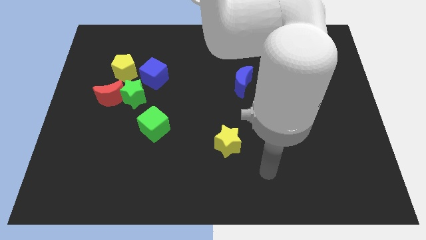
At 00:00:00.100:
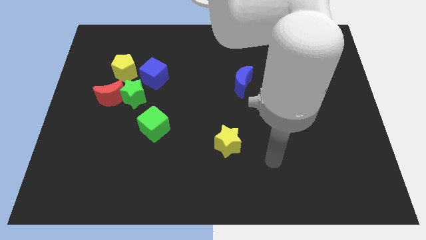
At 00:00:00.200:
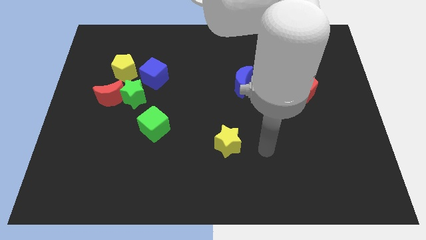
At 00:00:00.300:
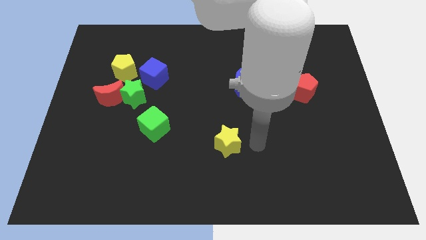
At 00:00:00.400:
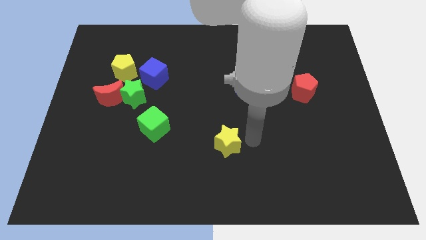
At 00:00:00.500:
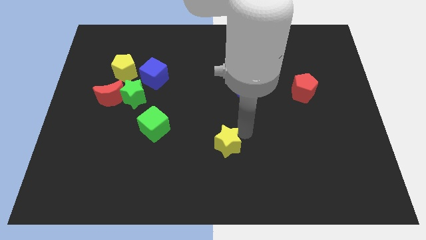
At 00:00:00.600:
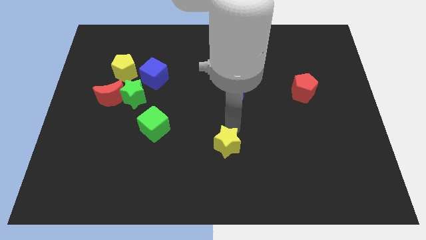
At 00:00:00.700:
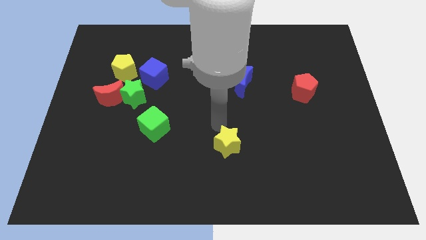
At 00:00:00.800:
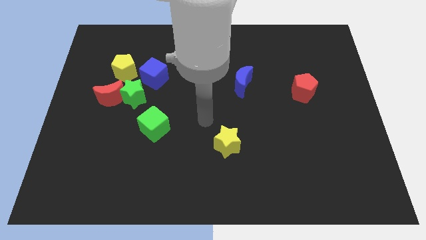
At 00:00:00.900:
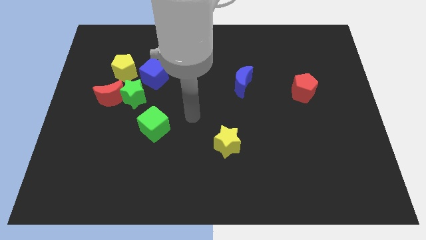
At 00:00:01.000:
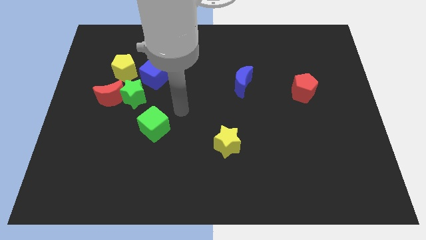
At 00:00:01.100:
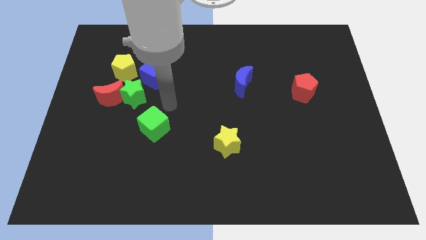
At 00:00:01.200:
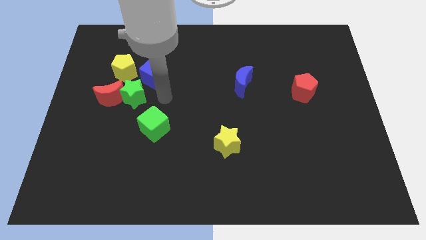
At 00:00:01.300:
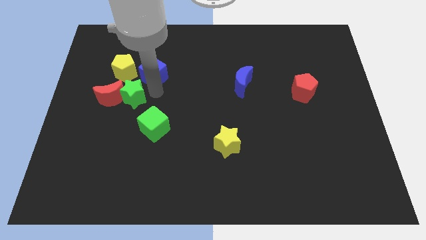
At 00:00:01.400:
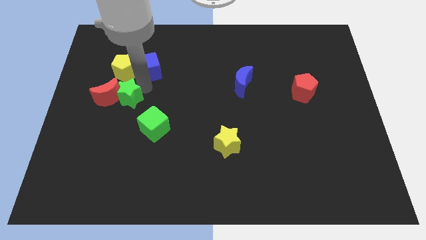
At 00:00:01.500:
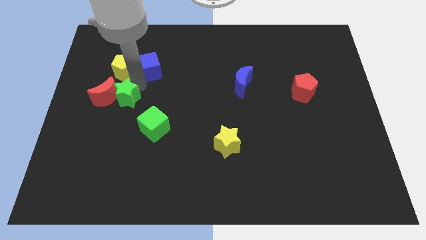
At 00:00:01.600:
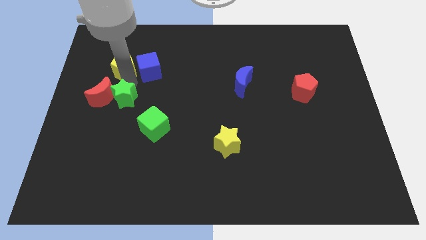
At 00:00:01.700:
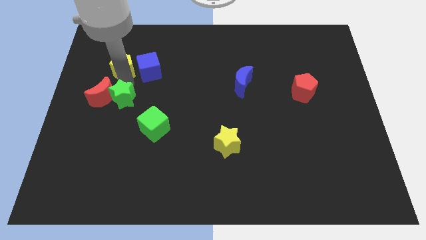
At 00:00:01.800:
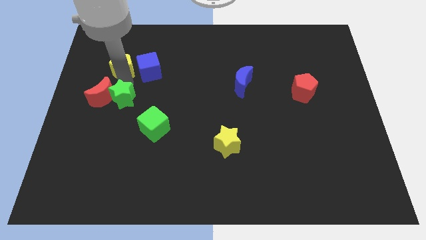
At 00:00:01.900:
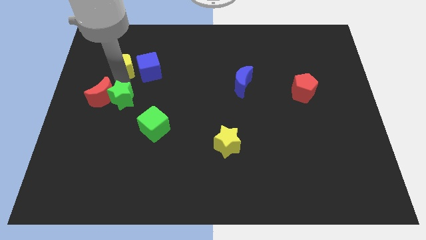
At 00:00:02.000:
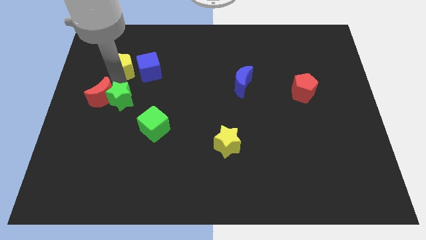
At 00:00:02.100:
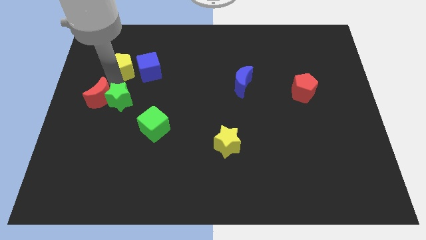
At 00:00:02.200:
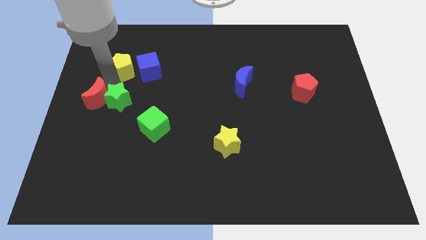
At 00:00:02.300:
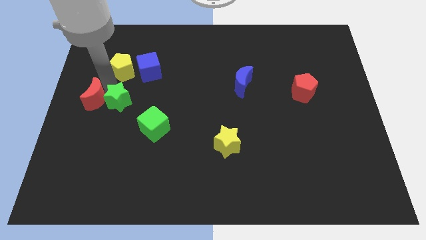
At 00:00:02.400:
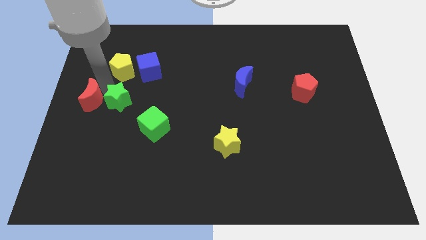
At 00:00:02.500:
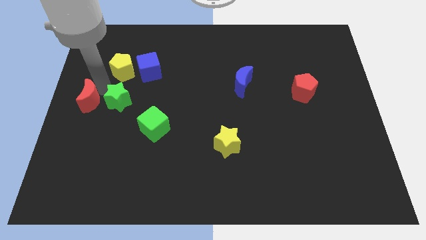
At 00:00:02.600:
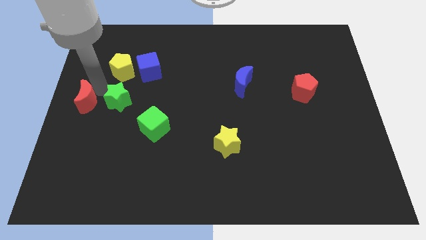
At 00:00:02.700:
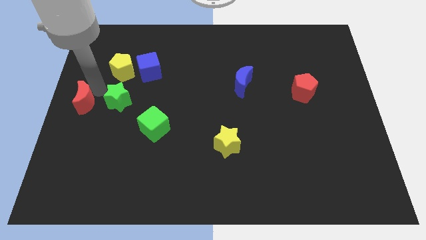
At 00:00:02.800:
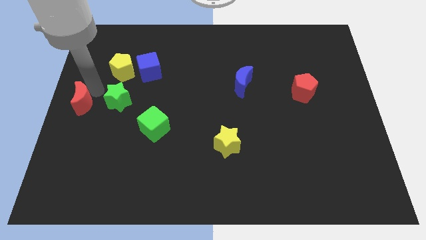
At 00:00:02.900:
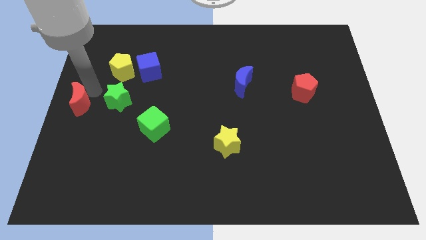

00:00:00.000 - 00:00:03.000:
separate the red moon from the green star and yellow pentagon

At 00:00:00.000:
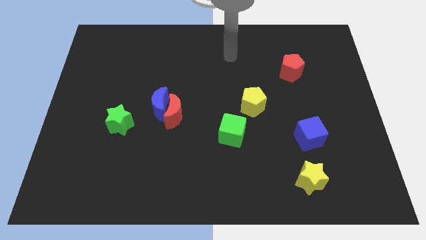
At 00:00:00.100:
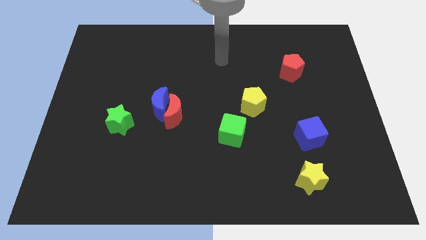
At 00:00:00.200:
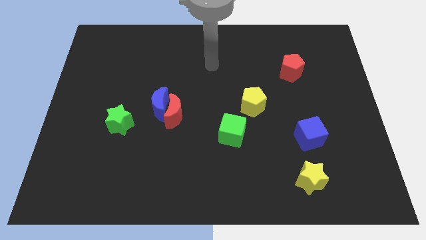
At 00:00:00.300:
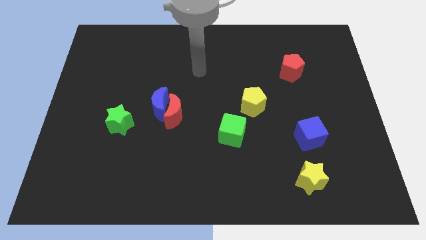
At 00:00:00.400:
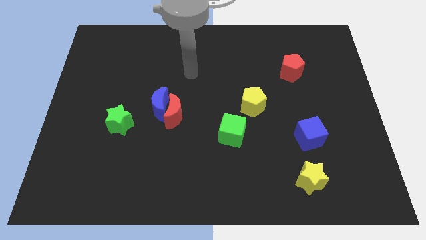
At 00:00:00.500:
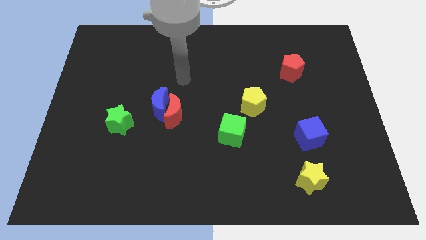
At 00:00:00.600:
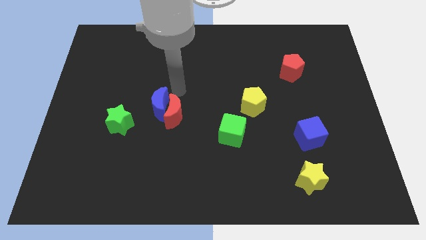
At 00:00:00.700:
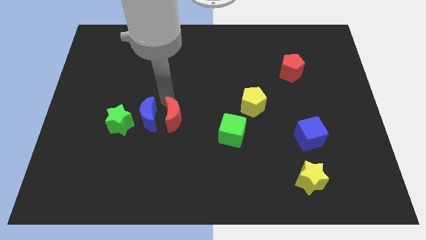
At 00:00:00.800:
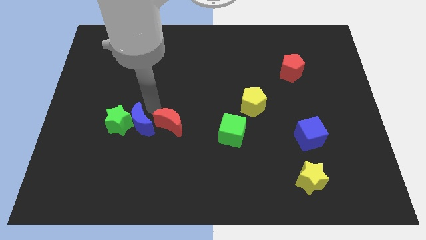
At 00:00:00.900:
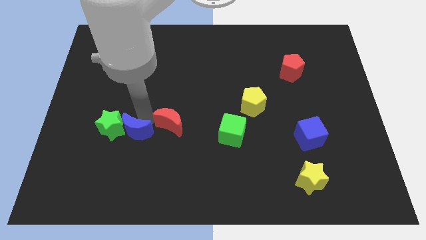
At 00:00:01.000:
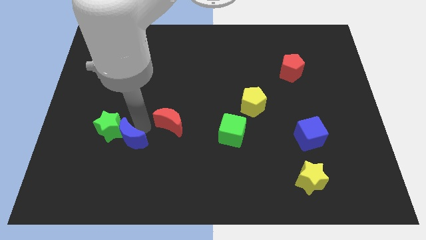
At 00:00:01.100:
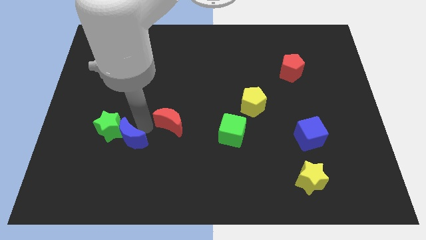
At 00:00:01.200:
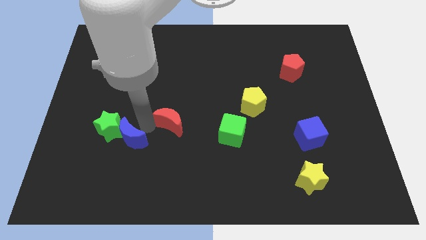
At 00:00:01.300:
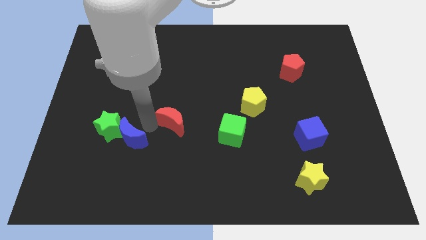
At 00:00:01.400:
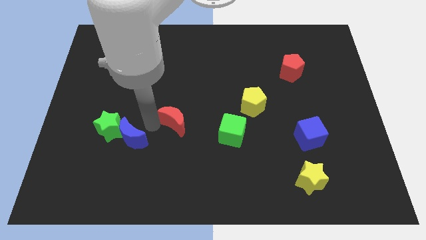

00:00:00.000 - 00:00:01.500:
separate the red moon from the blue moon

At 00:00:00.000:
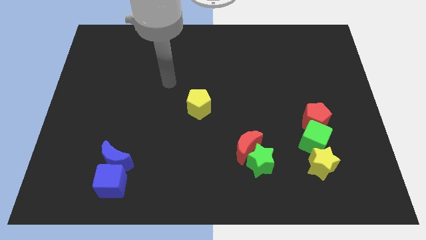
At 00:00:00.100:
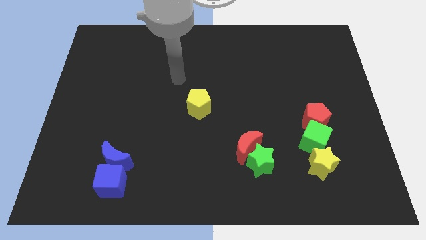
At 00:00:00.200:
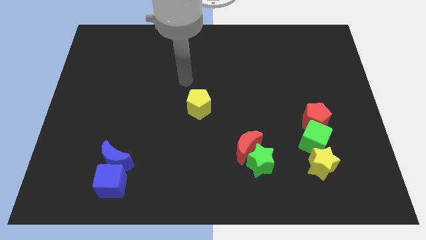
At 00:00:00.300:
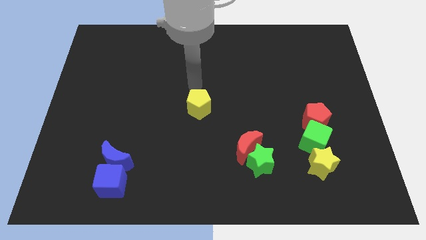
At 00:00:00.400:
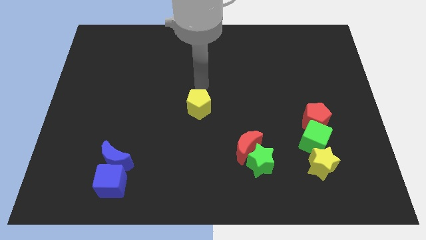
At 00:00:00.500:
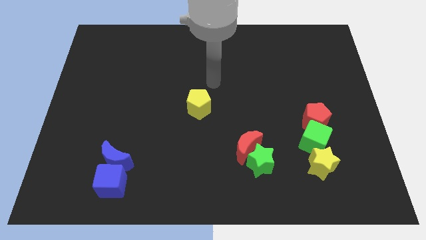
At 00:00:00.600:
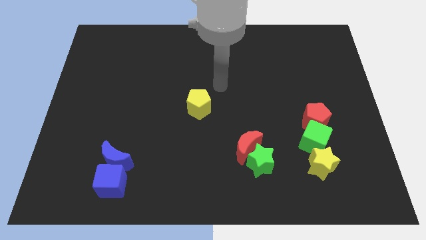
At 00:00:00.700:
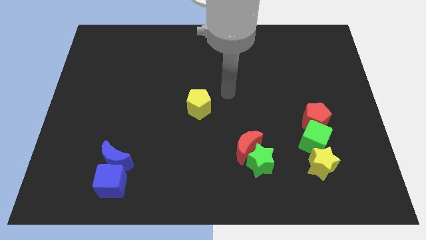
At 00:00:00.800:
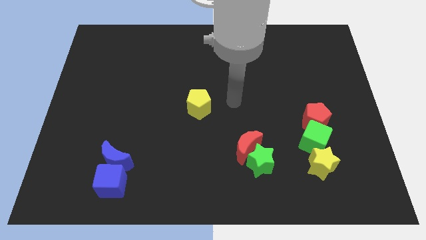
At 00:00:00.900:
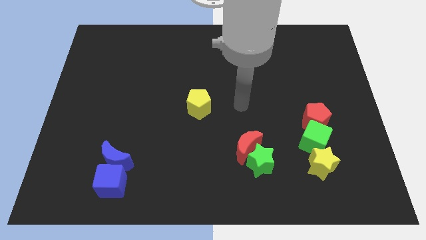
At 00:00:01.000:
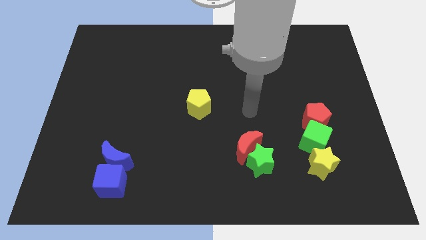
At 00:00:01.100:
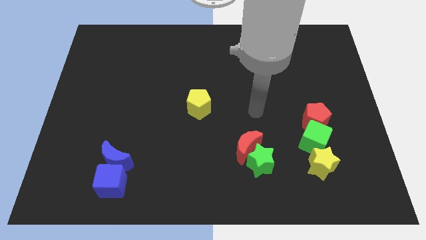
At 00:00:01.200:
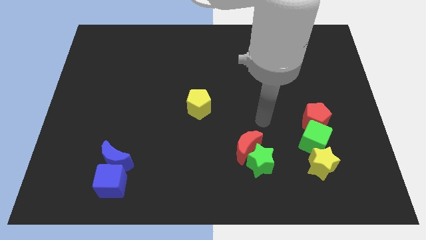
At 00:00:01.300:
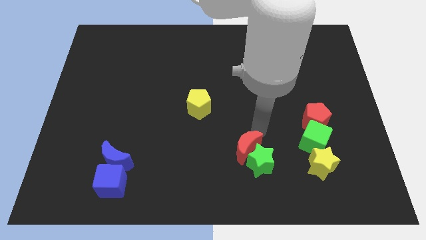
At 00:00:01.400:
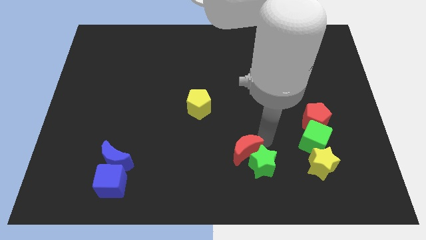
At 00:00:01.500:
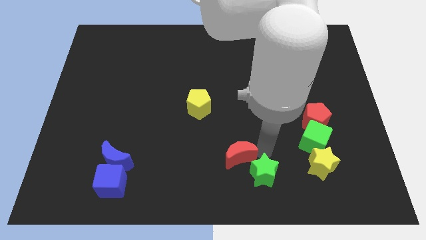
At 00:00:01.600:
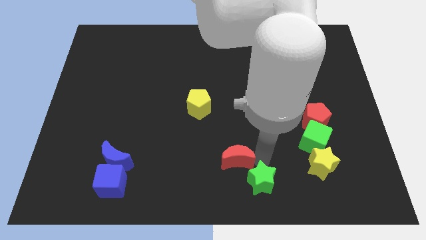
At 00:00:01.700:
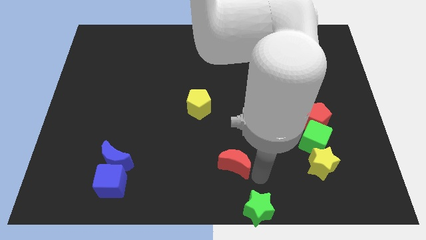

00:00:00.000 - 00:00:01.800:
pull the red moon apart from the green star

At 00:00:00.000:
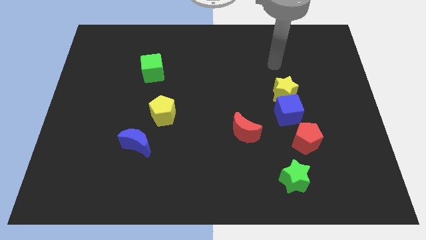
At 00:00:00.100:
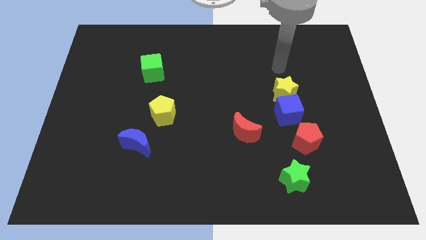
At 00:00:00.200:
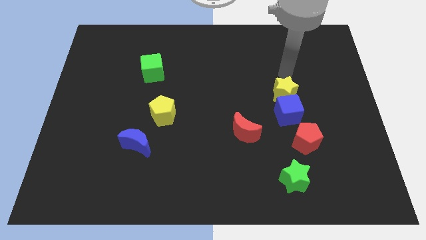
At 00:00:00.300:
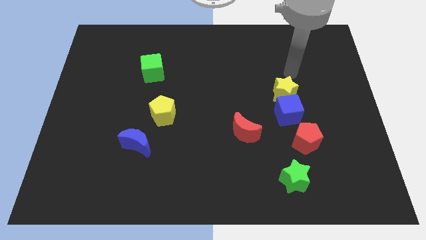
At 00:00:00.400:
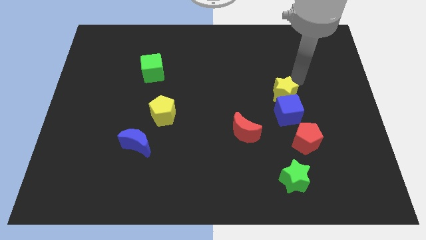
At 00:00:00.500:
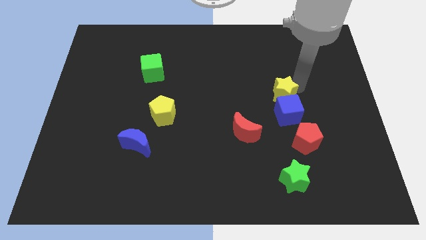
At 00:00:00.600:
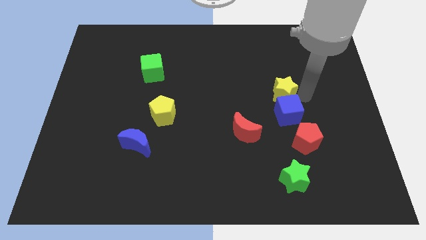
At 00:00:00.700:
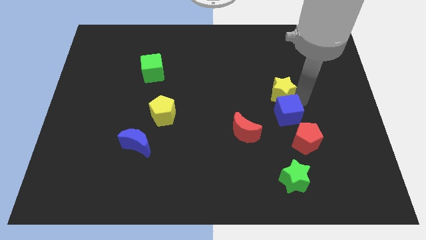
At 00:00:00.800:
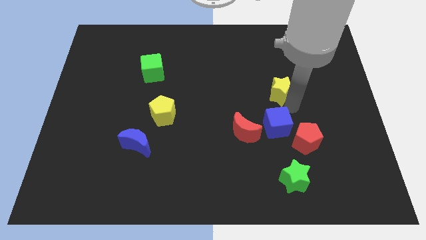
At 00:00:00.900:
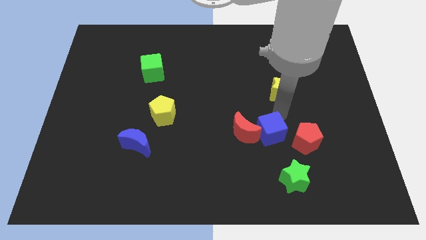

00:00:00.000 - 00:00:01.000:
separate the yellow star from the blue cube

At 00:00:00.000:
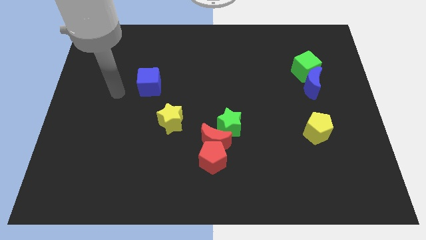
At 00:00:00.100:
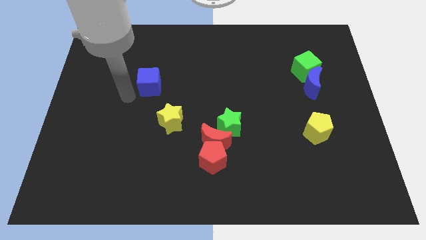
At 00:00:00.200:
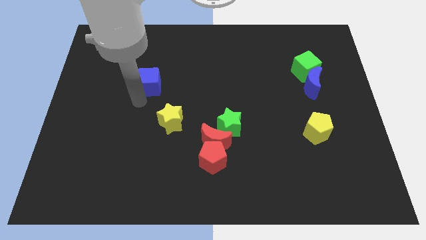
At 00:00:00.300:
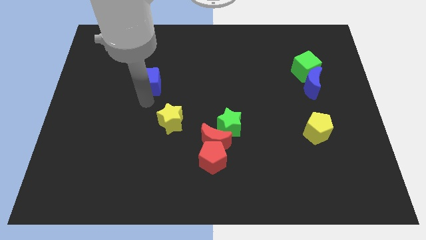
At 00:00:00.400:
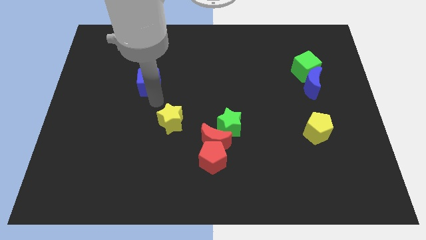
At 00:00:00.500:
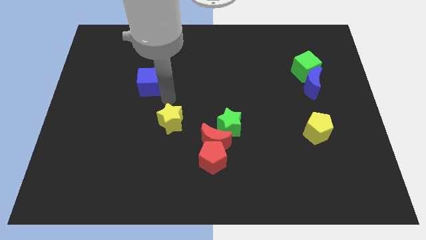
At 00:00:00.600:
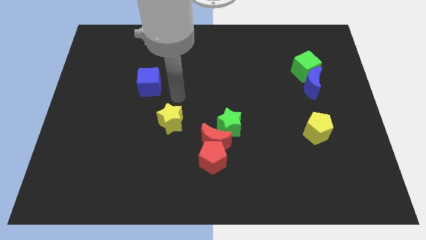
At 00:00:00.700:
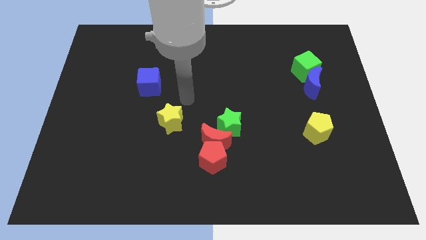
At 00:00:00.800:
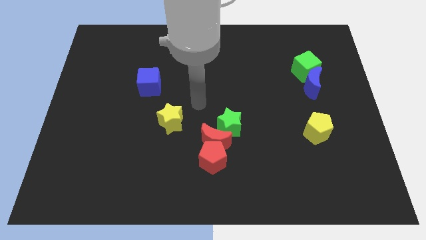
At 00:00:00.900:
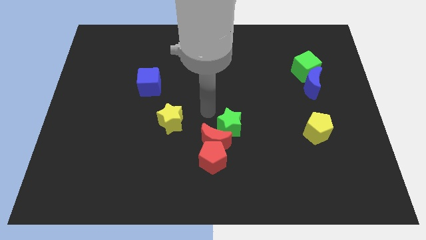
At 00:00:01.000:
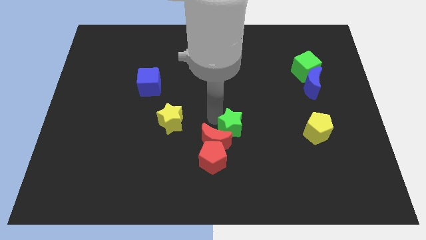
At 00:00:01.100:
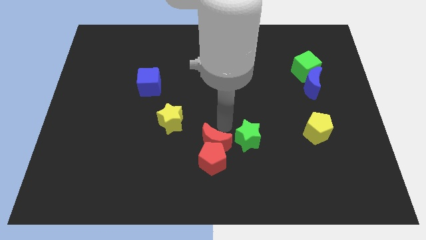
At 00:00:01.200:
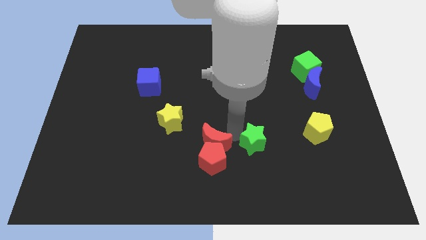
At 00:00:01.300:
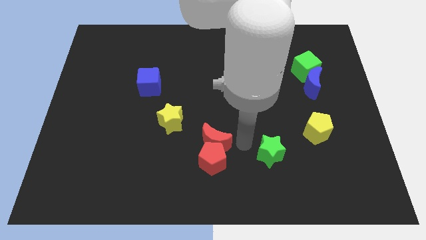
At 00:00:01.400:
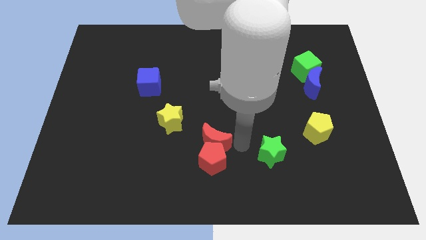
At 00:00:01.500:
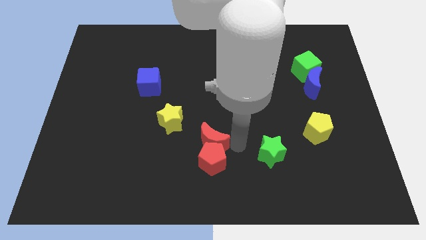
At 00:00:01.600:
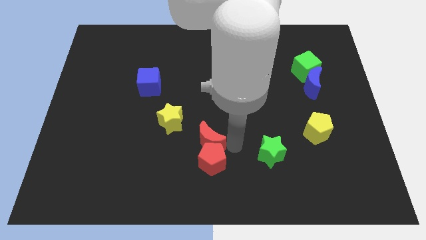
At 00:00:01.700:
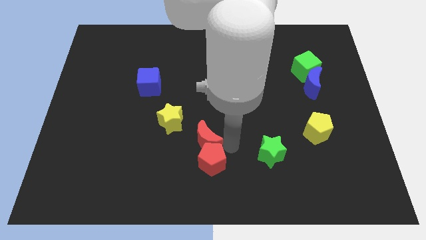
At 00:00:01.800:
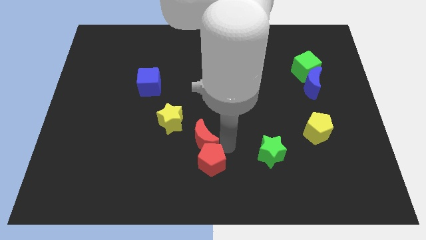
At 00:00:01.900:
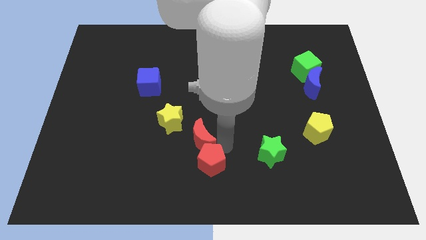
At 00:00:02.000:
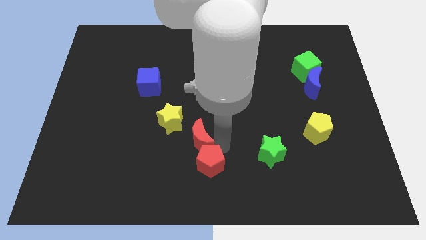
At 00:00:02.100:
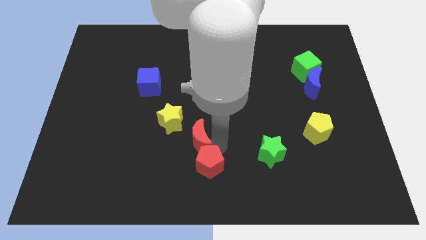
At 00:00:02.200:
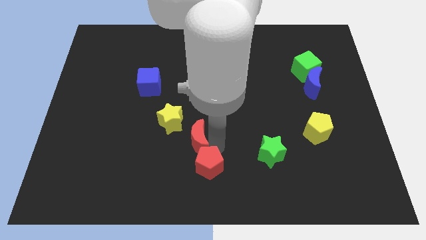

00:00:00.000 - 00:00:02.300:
separate the red moon from the red pentagon and green star
